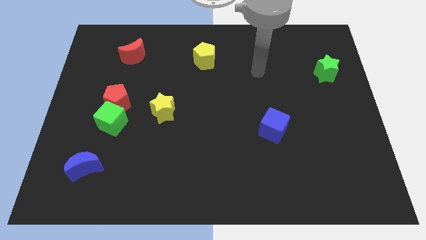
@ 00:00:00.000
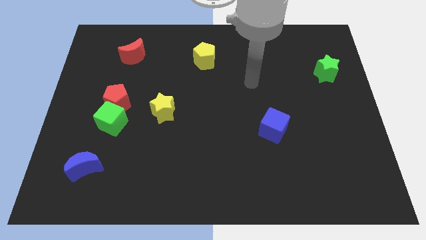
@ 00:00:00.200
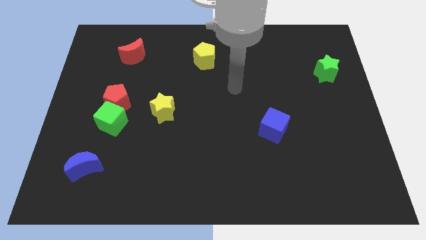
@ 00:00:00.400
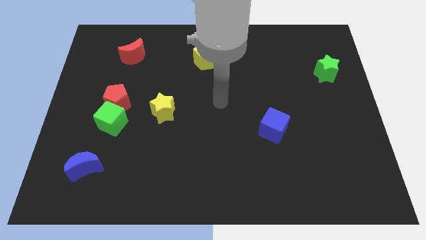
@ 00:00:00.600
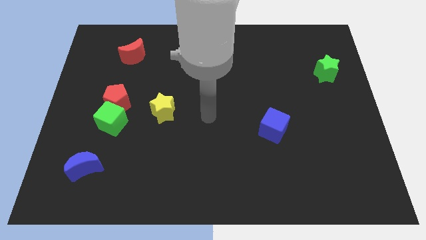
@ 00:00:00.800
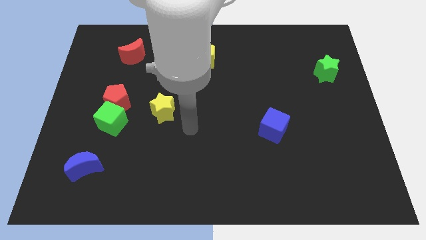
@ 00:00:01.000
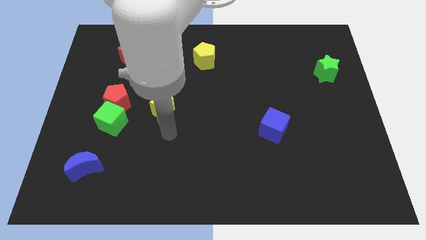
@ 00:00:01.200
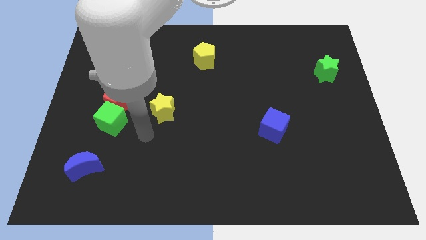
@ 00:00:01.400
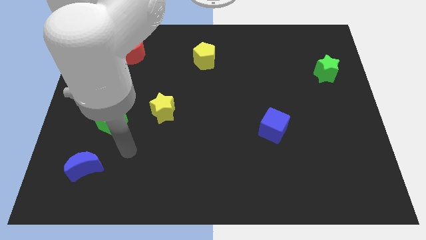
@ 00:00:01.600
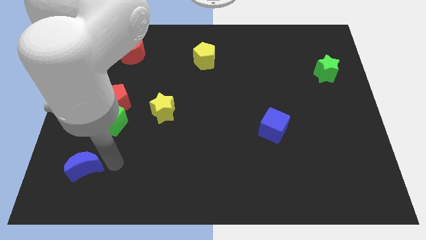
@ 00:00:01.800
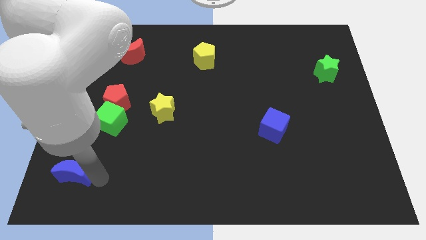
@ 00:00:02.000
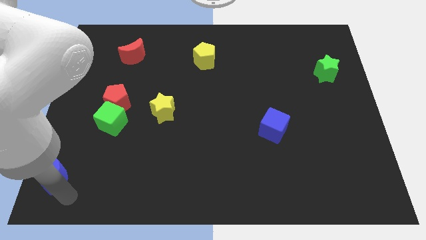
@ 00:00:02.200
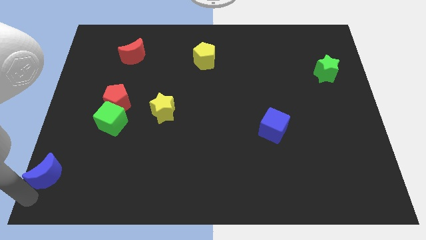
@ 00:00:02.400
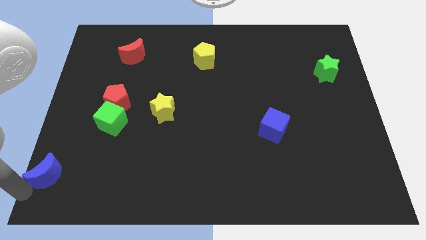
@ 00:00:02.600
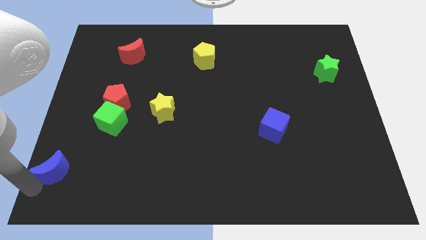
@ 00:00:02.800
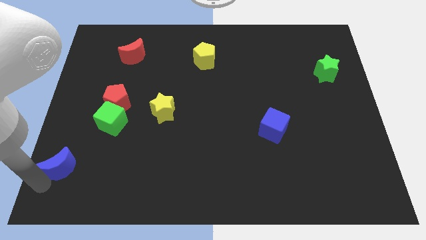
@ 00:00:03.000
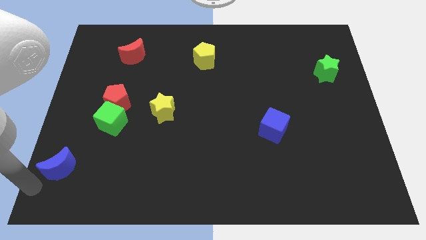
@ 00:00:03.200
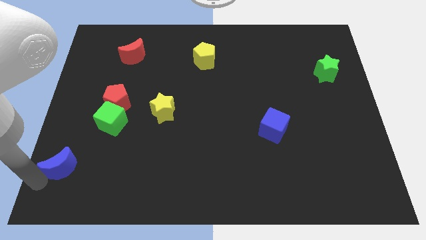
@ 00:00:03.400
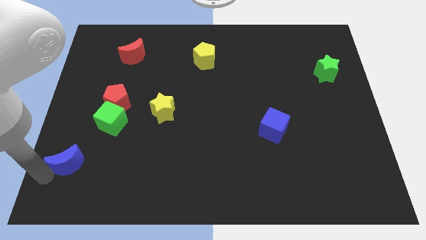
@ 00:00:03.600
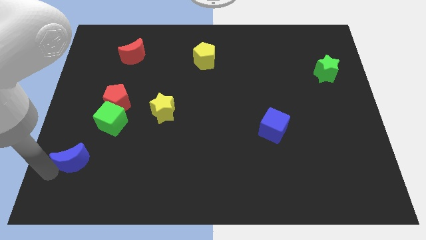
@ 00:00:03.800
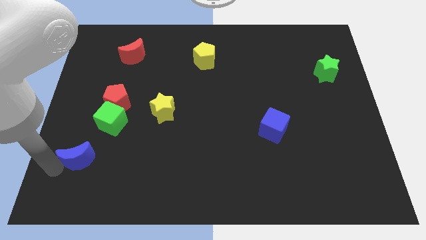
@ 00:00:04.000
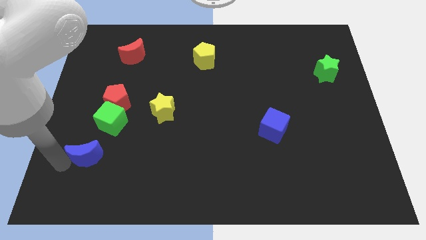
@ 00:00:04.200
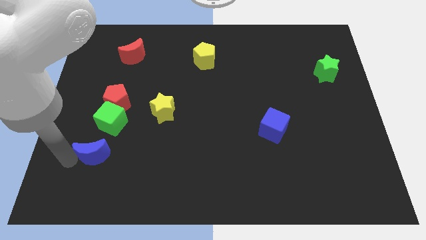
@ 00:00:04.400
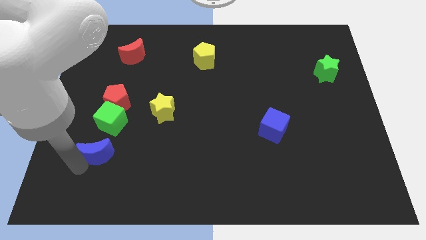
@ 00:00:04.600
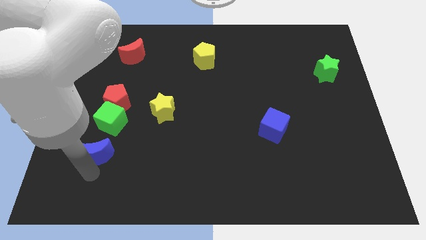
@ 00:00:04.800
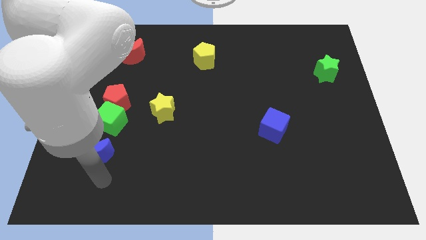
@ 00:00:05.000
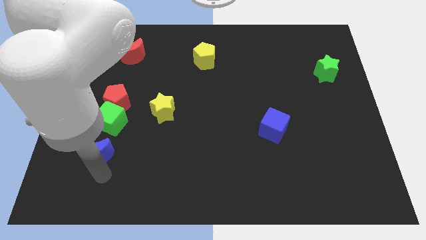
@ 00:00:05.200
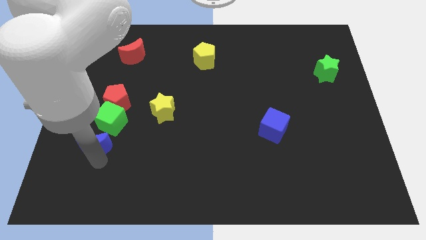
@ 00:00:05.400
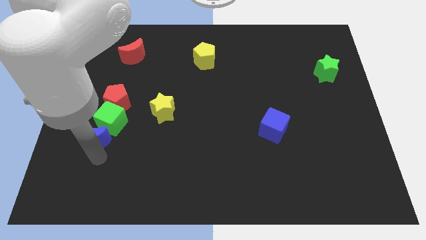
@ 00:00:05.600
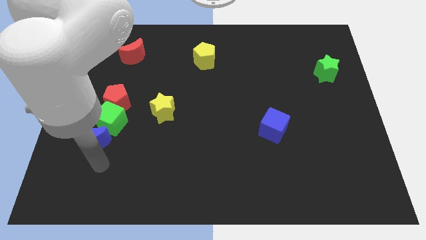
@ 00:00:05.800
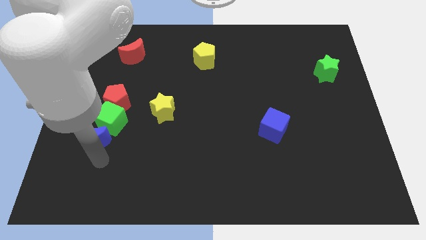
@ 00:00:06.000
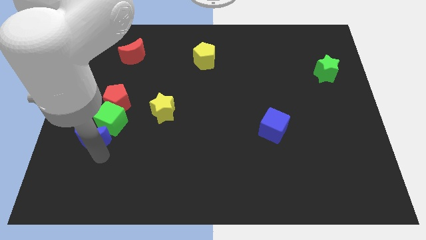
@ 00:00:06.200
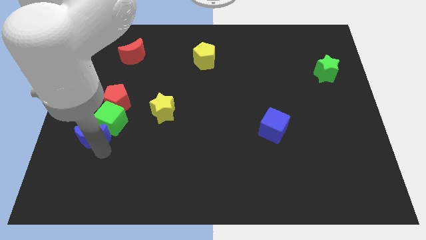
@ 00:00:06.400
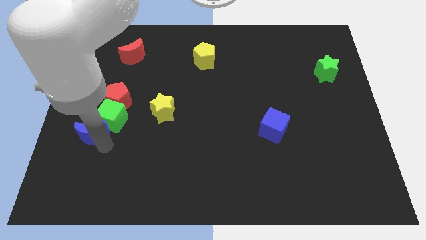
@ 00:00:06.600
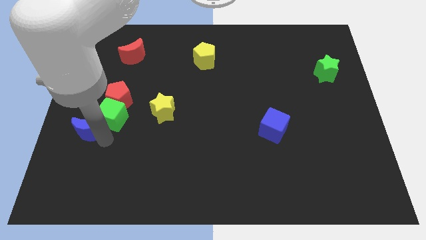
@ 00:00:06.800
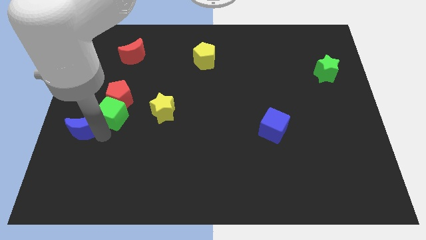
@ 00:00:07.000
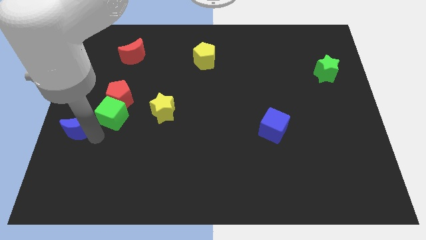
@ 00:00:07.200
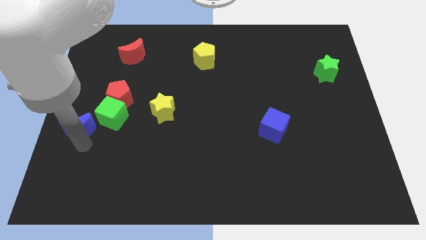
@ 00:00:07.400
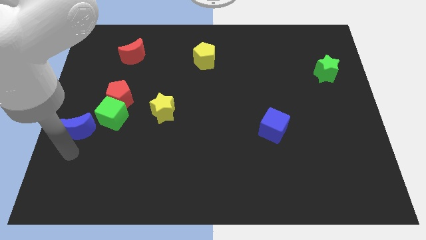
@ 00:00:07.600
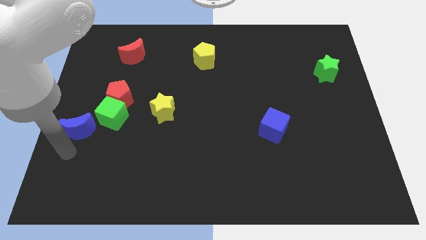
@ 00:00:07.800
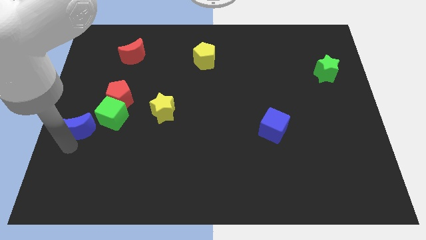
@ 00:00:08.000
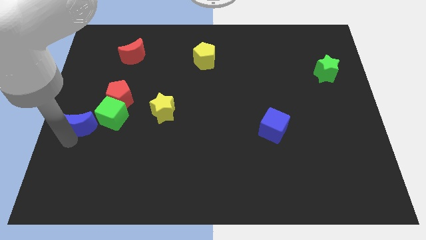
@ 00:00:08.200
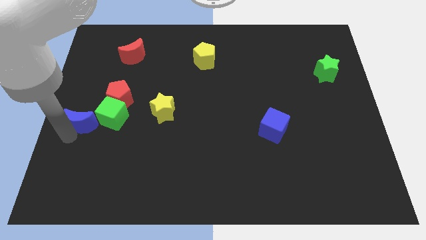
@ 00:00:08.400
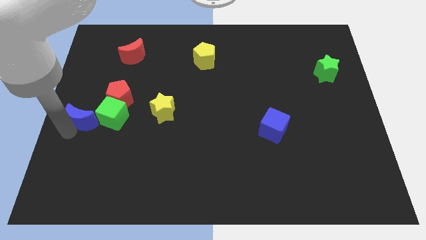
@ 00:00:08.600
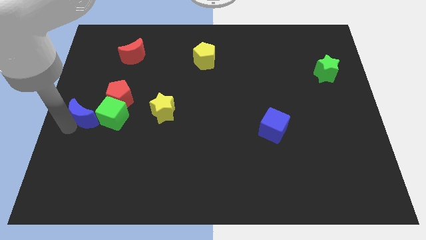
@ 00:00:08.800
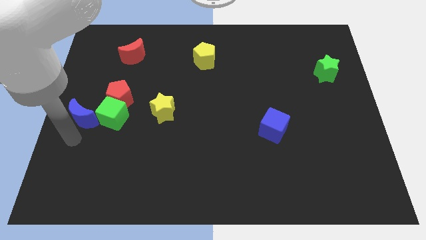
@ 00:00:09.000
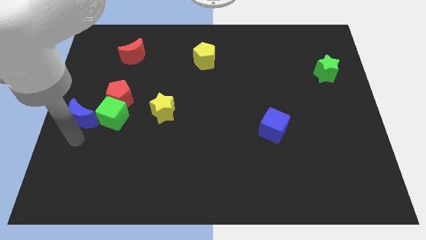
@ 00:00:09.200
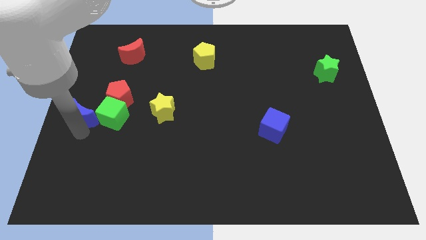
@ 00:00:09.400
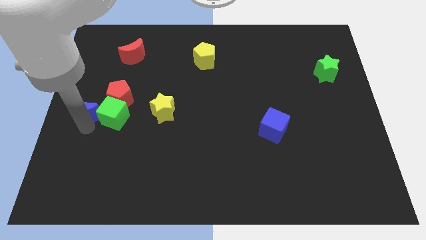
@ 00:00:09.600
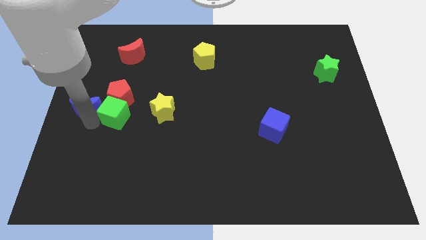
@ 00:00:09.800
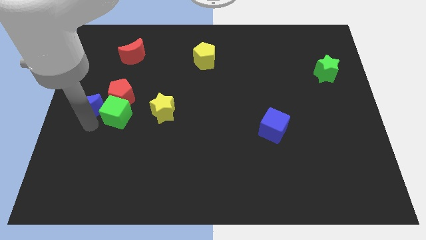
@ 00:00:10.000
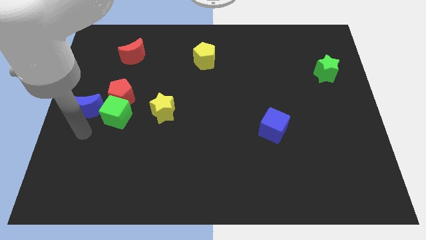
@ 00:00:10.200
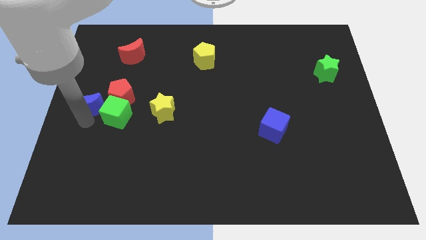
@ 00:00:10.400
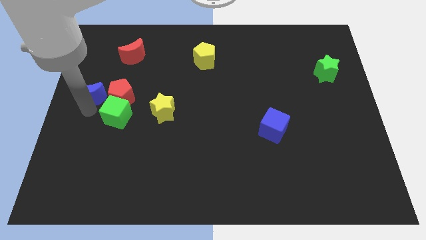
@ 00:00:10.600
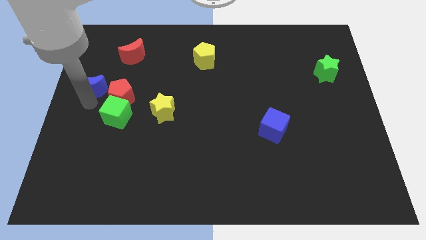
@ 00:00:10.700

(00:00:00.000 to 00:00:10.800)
slide the blue moon upwards

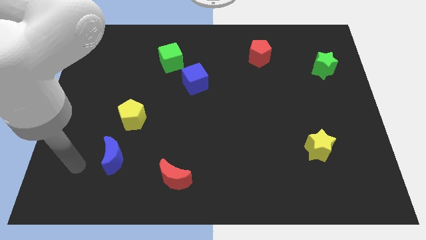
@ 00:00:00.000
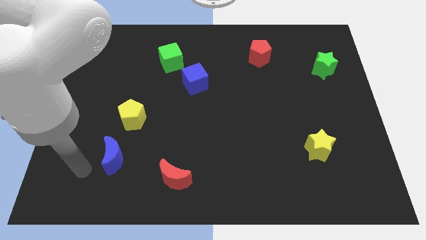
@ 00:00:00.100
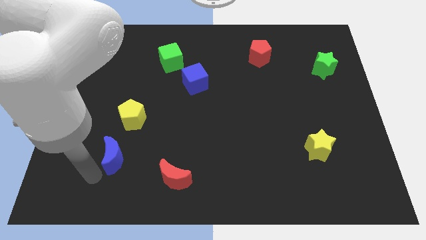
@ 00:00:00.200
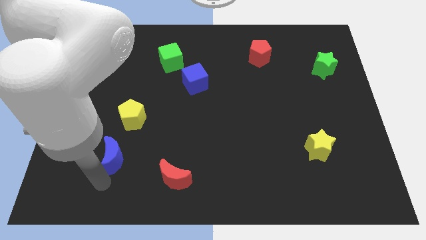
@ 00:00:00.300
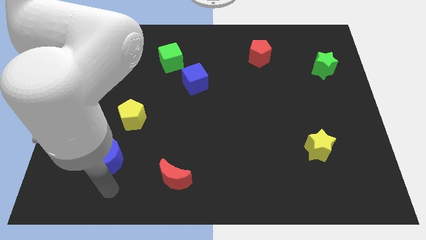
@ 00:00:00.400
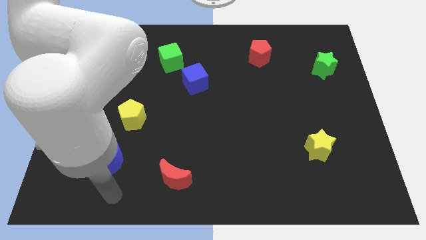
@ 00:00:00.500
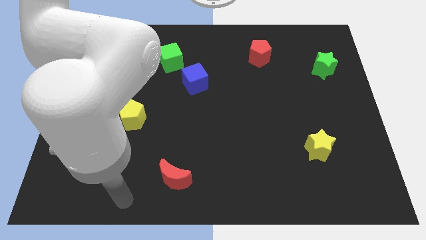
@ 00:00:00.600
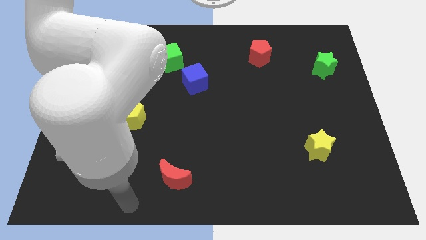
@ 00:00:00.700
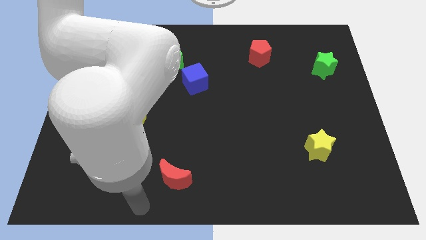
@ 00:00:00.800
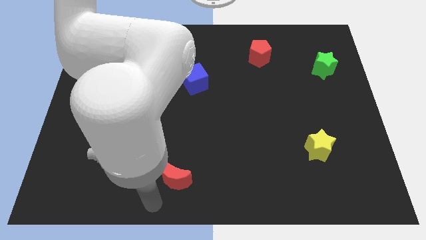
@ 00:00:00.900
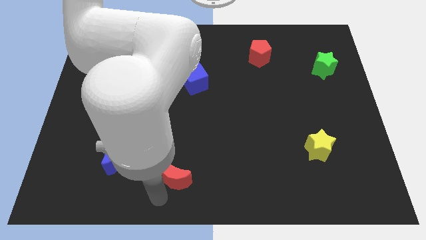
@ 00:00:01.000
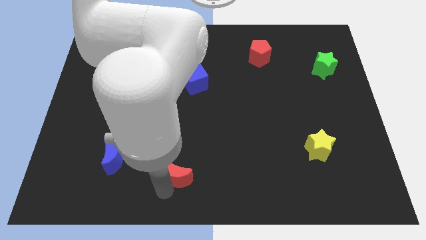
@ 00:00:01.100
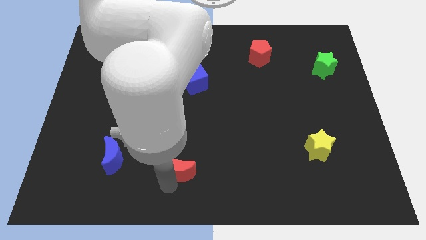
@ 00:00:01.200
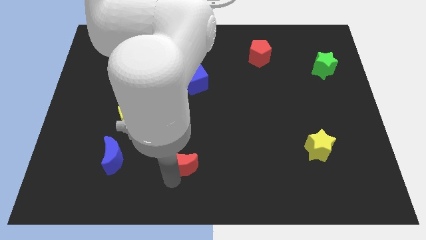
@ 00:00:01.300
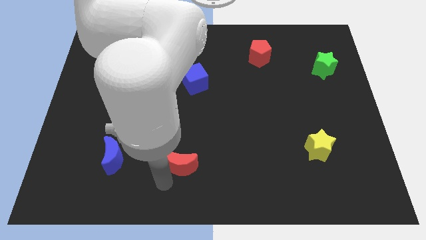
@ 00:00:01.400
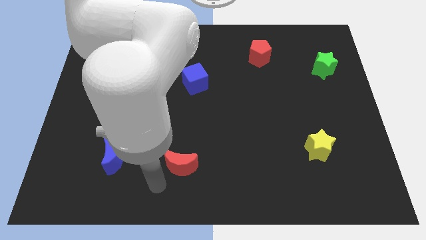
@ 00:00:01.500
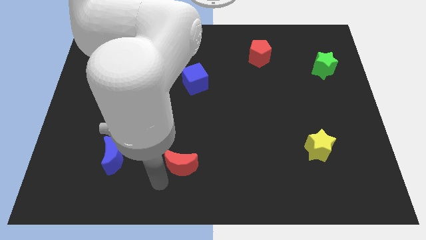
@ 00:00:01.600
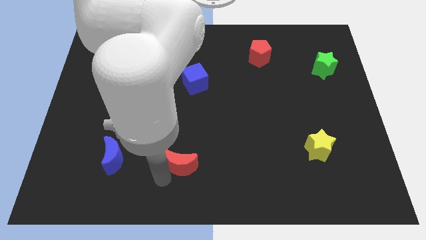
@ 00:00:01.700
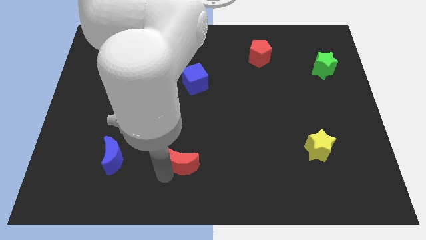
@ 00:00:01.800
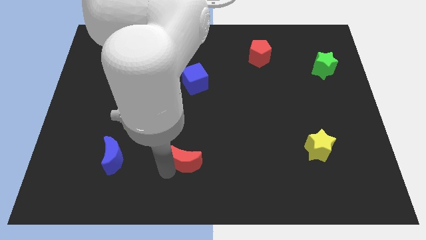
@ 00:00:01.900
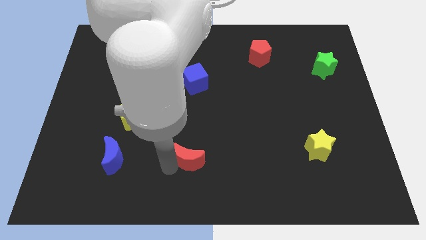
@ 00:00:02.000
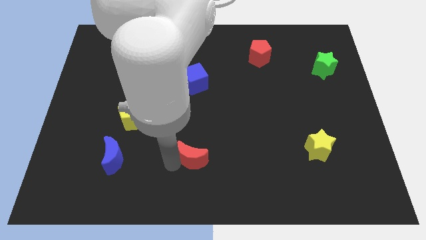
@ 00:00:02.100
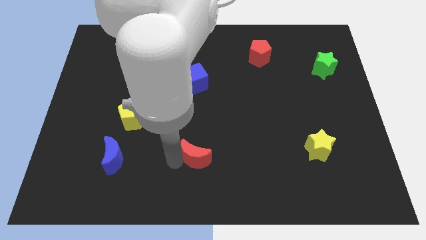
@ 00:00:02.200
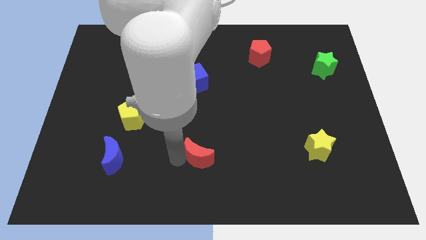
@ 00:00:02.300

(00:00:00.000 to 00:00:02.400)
slightly move the red moon upwards and then to the right
